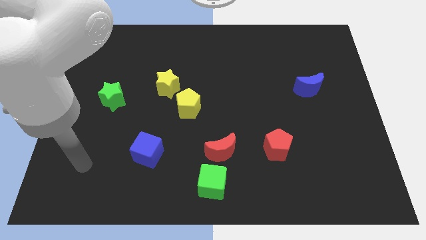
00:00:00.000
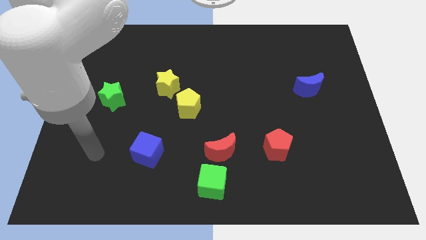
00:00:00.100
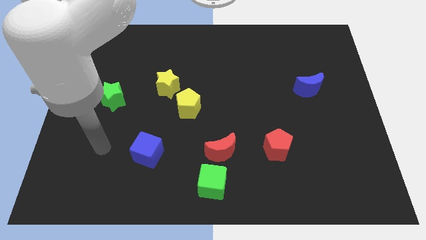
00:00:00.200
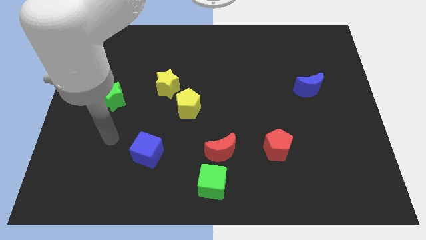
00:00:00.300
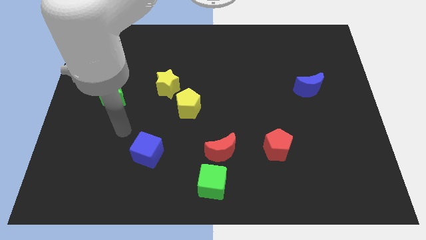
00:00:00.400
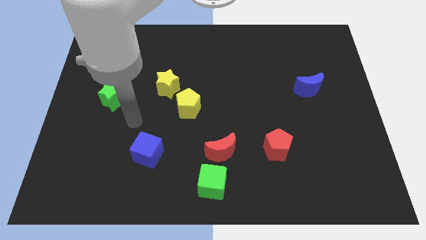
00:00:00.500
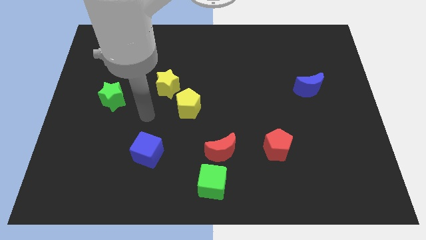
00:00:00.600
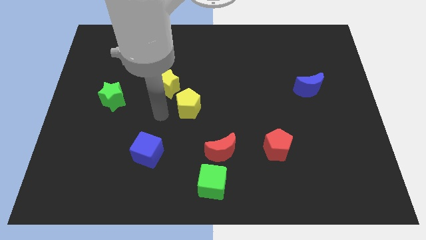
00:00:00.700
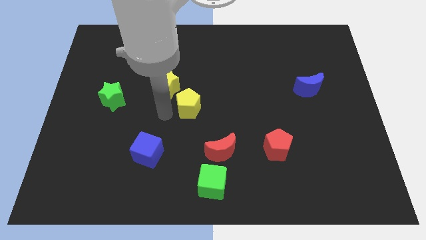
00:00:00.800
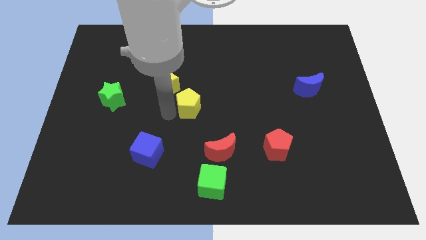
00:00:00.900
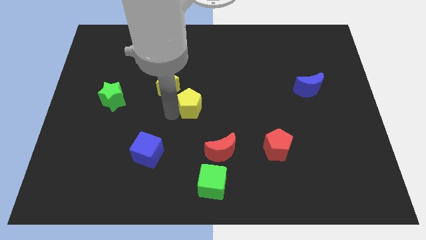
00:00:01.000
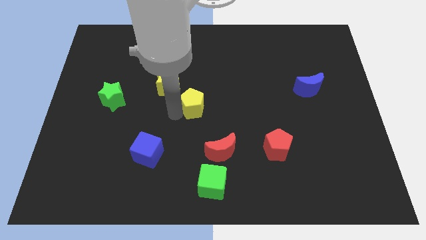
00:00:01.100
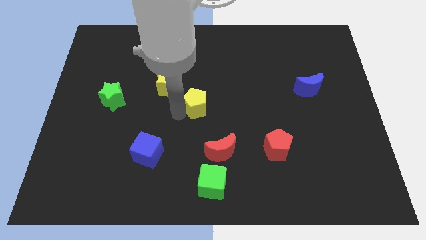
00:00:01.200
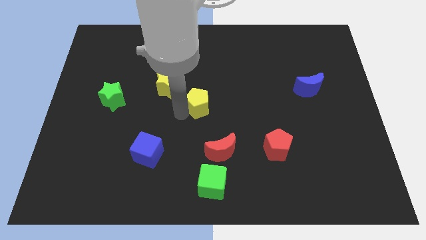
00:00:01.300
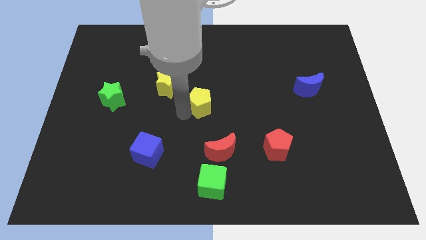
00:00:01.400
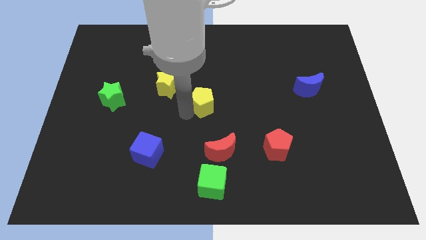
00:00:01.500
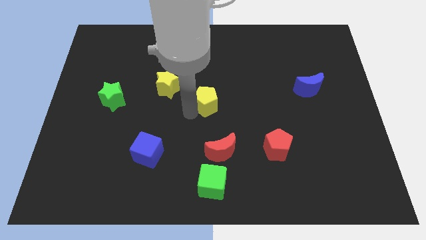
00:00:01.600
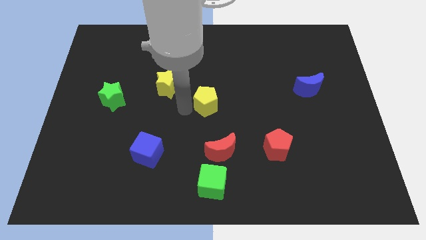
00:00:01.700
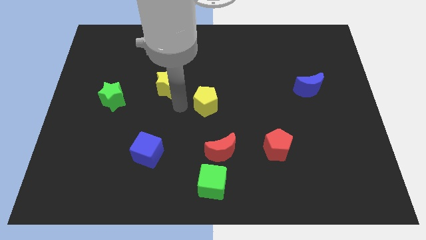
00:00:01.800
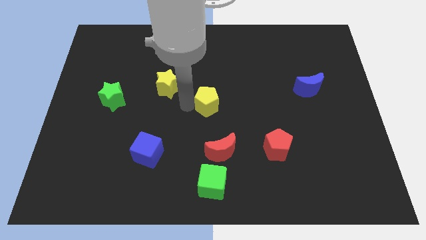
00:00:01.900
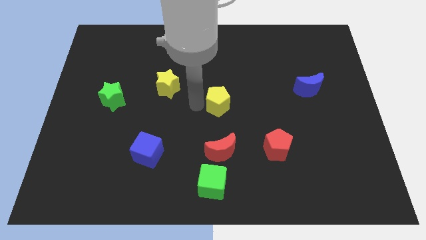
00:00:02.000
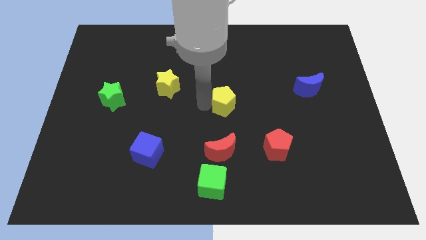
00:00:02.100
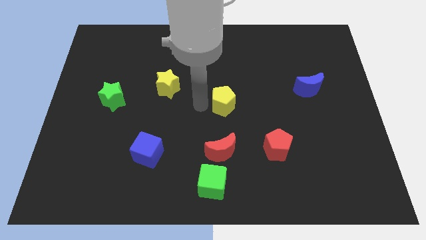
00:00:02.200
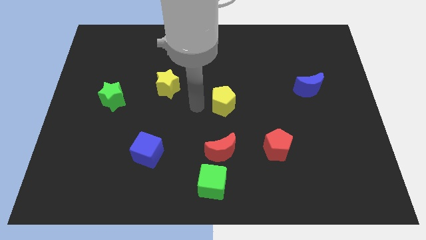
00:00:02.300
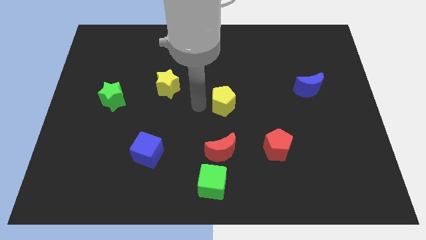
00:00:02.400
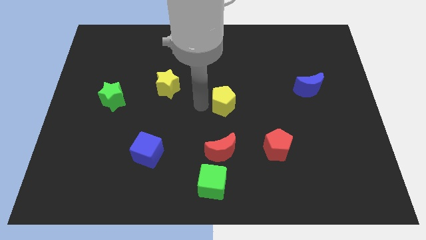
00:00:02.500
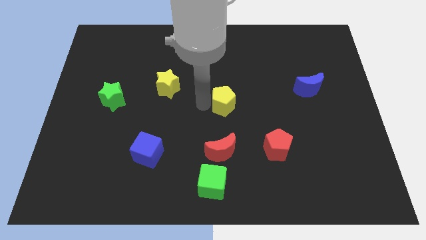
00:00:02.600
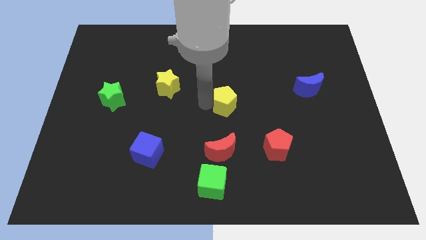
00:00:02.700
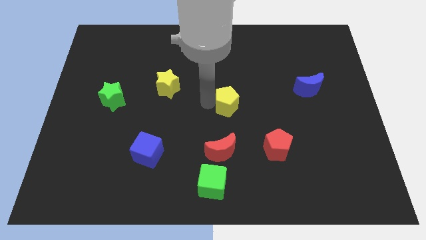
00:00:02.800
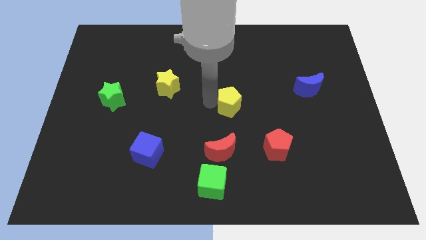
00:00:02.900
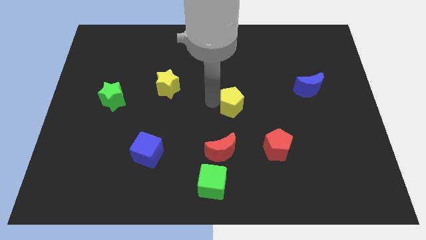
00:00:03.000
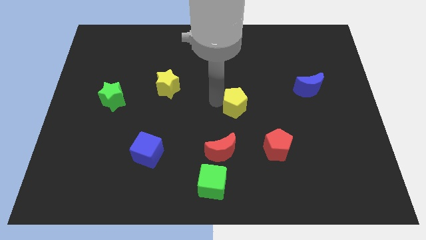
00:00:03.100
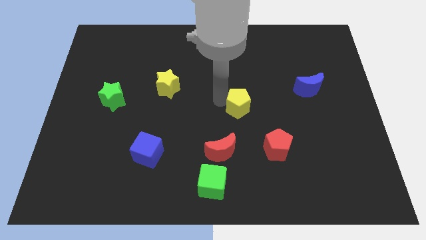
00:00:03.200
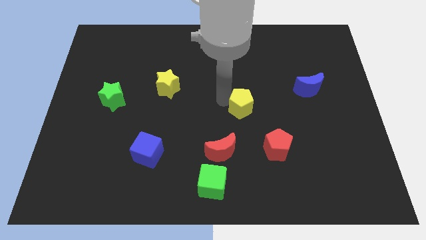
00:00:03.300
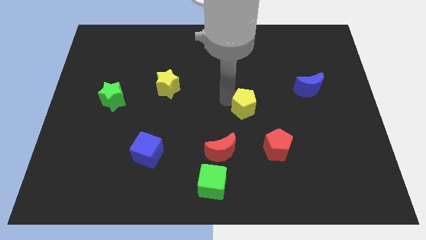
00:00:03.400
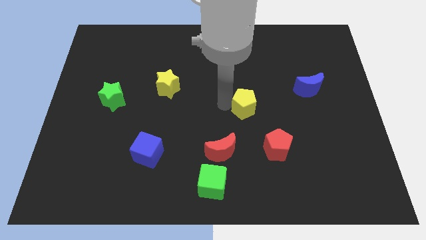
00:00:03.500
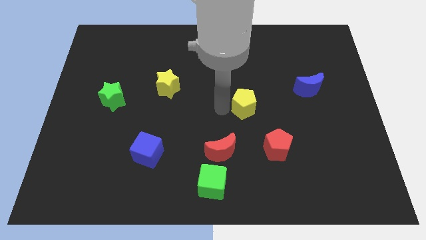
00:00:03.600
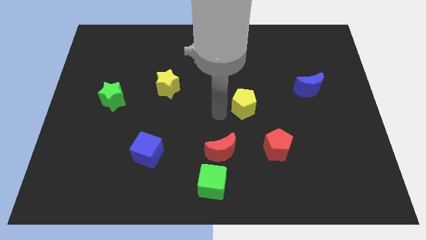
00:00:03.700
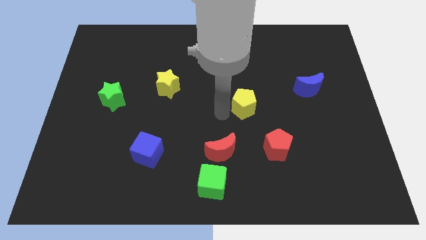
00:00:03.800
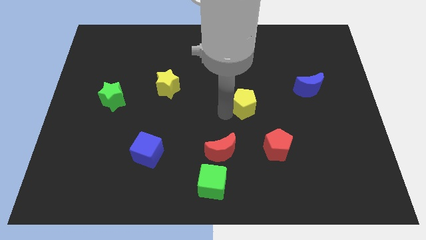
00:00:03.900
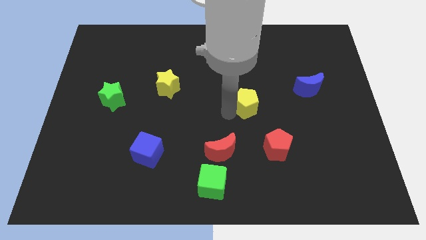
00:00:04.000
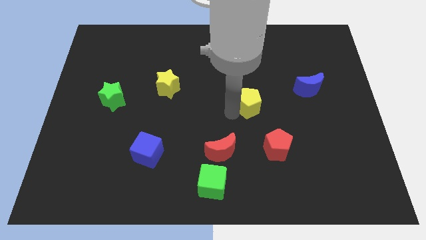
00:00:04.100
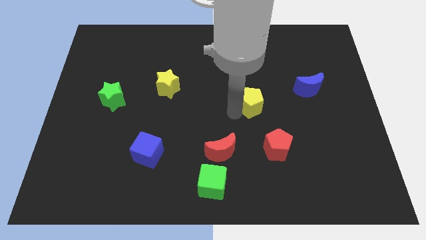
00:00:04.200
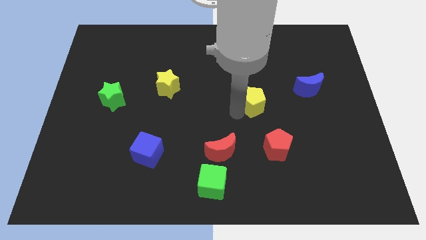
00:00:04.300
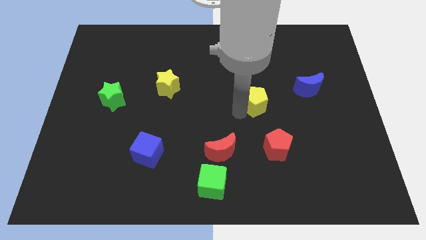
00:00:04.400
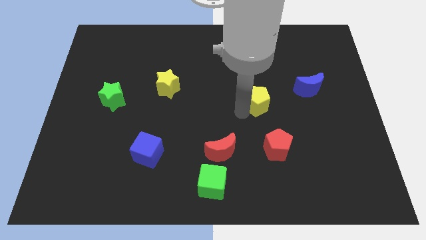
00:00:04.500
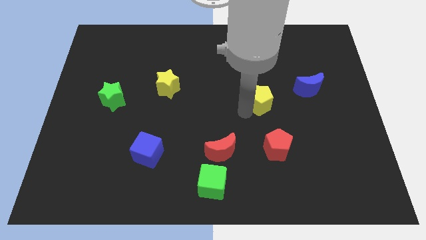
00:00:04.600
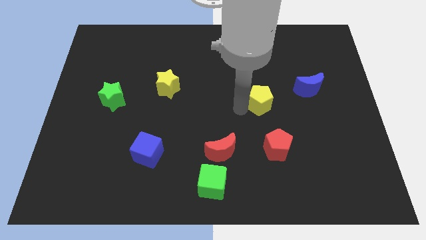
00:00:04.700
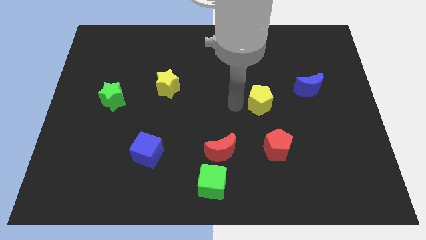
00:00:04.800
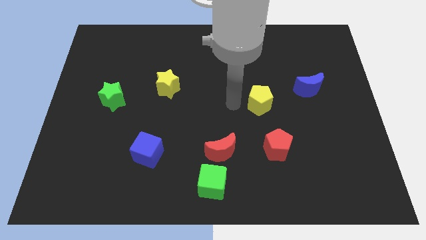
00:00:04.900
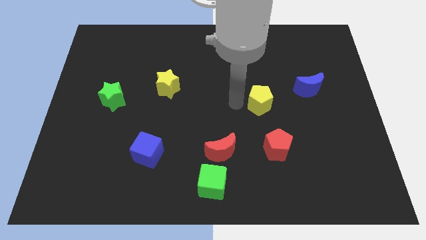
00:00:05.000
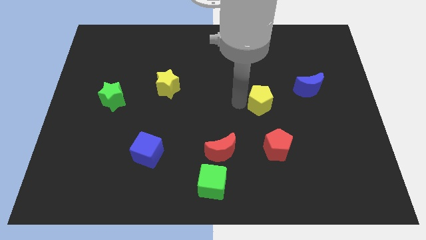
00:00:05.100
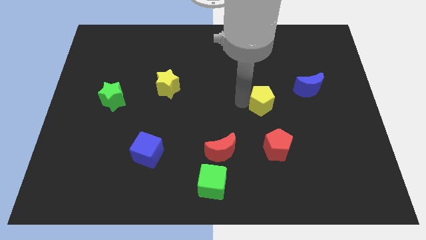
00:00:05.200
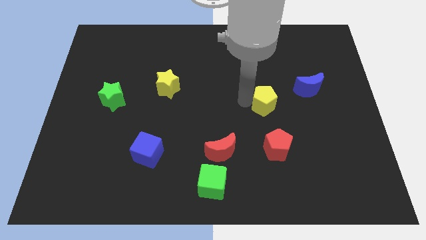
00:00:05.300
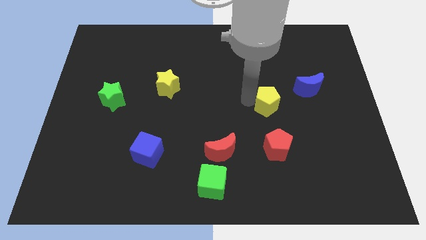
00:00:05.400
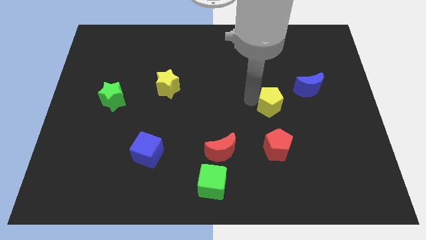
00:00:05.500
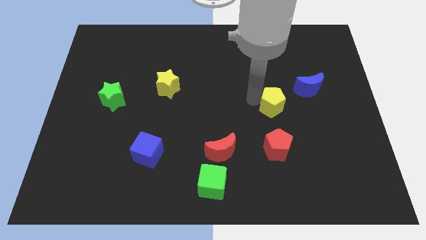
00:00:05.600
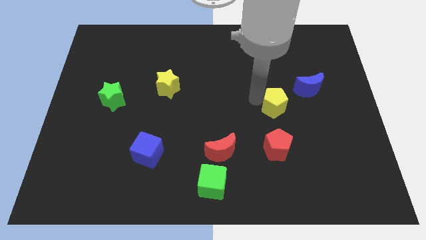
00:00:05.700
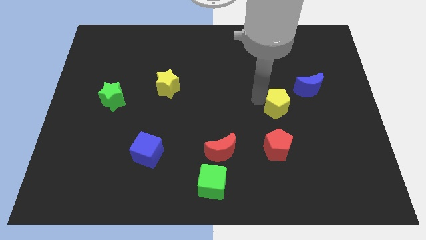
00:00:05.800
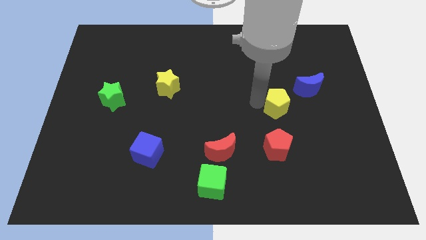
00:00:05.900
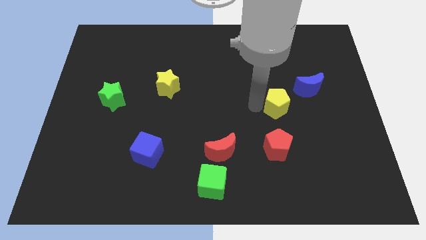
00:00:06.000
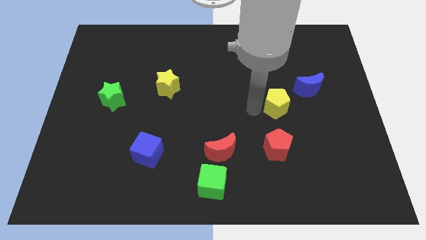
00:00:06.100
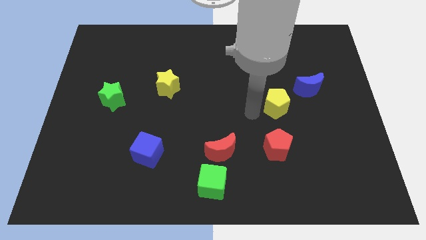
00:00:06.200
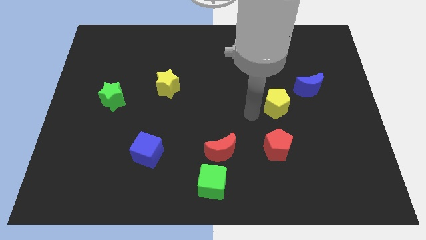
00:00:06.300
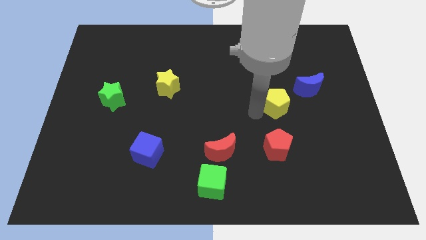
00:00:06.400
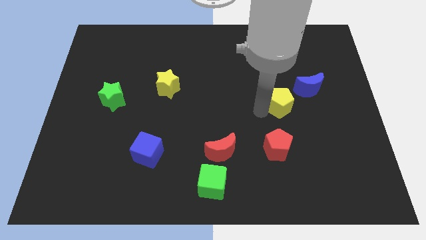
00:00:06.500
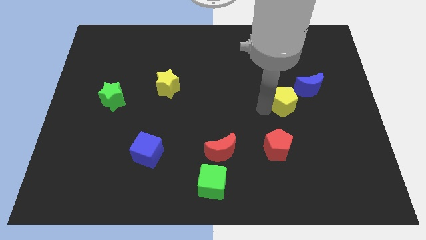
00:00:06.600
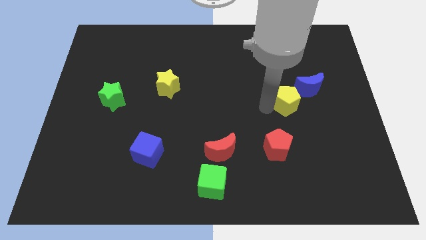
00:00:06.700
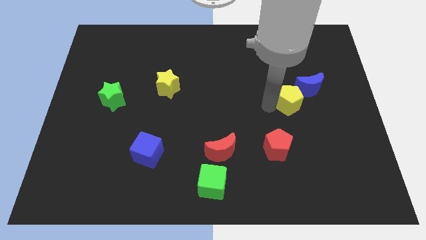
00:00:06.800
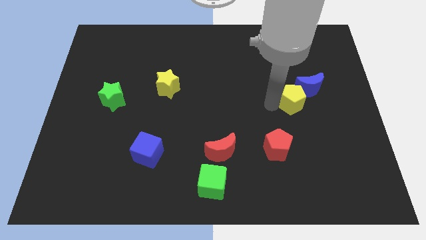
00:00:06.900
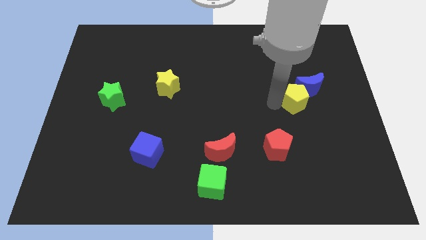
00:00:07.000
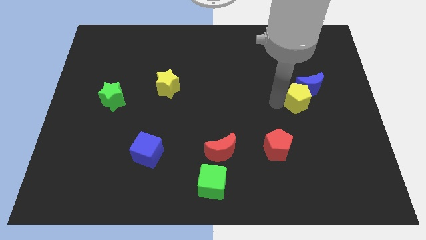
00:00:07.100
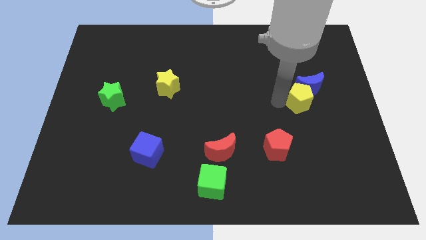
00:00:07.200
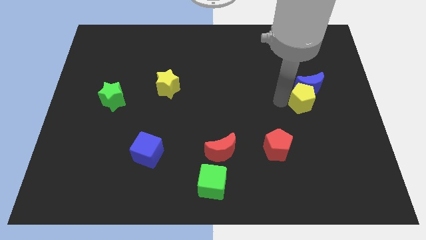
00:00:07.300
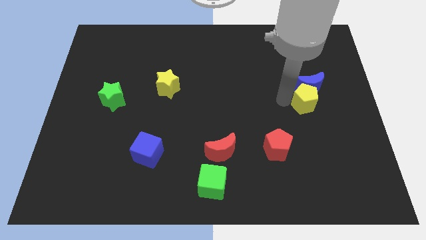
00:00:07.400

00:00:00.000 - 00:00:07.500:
slide the yellow pentagon to the bottom right of the blue moon

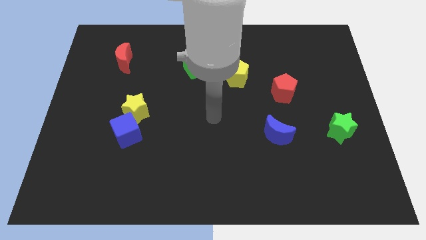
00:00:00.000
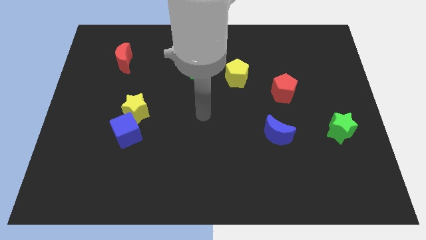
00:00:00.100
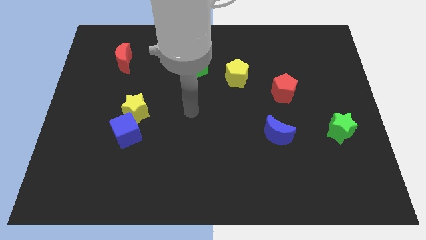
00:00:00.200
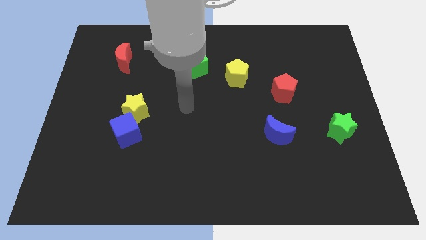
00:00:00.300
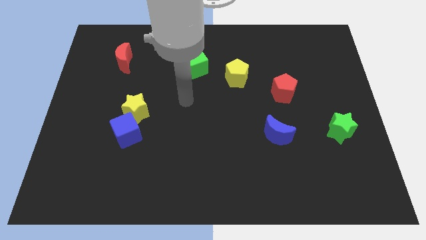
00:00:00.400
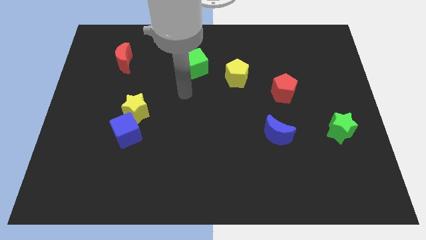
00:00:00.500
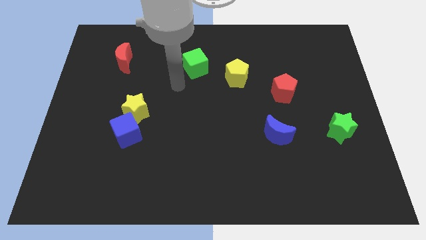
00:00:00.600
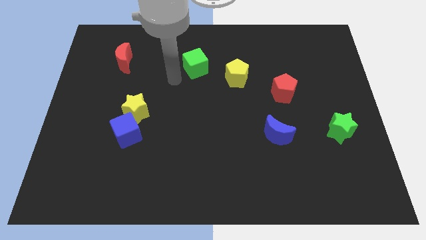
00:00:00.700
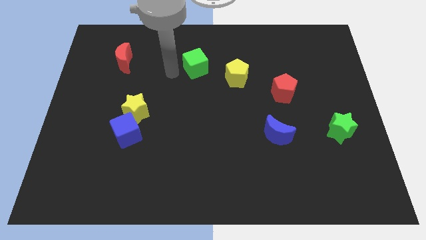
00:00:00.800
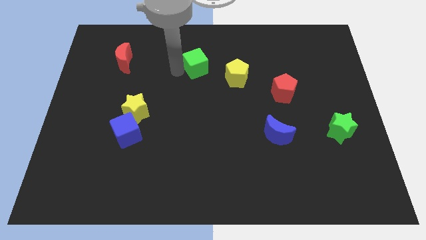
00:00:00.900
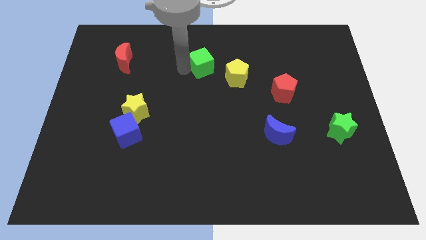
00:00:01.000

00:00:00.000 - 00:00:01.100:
slide the green cube to the top left of the yellow pentagon
